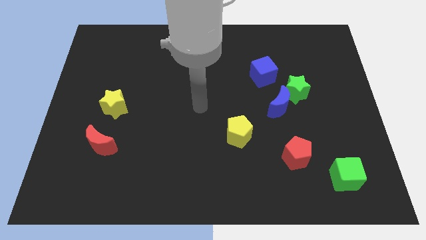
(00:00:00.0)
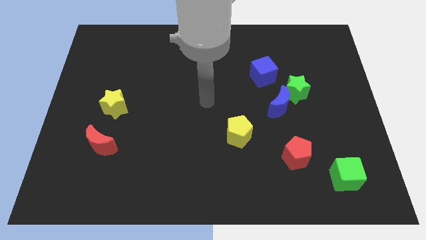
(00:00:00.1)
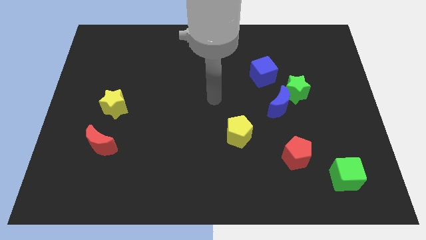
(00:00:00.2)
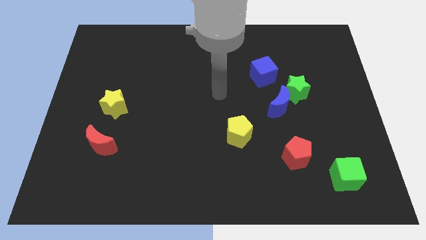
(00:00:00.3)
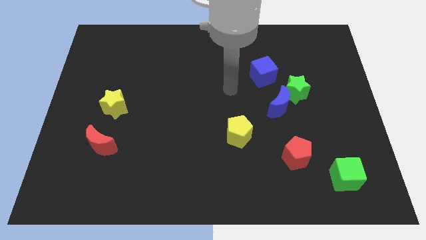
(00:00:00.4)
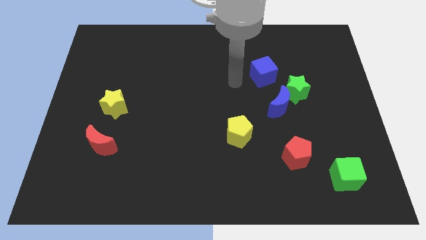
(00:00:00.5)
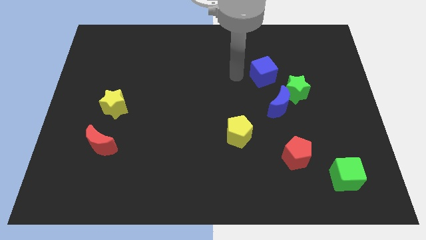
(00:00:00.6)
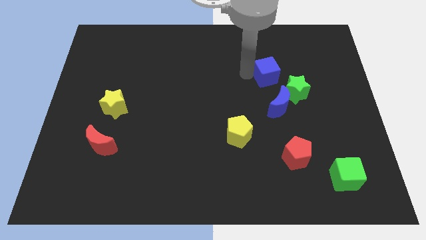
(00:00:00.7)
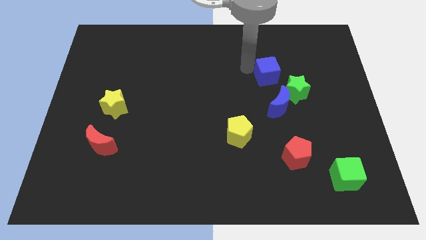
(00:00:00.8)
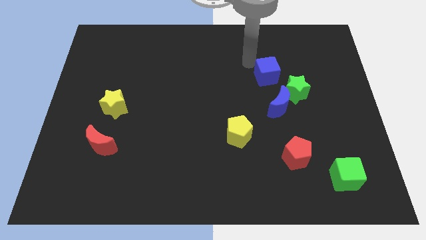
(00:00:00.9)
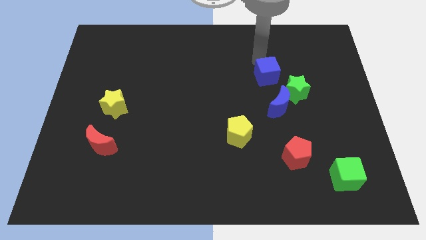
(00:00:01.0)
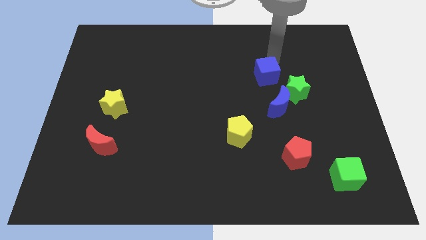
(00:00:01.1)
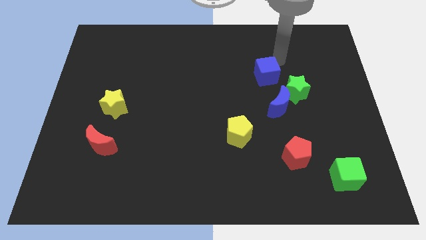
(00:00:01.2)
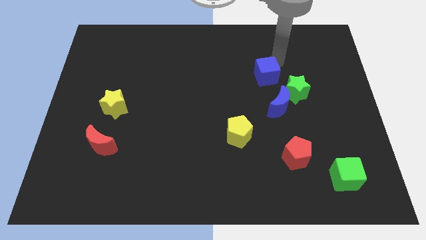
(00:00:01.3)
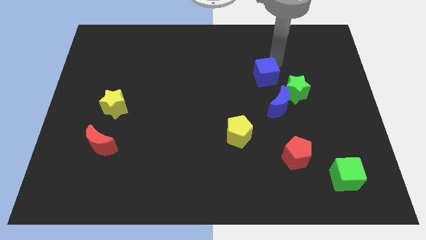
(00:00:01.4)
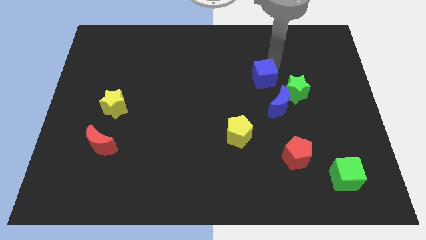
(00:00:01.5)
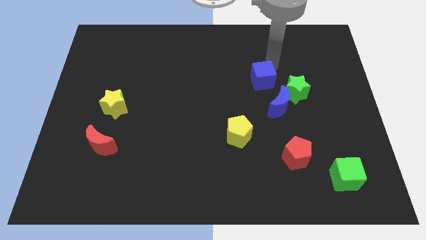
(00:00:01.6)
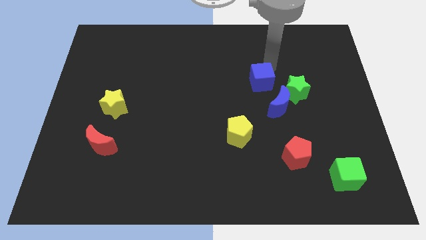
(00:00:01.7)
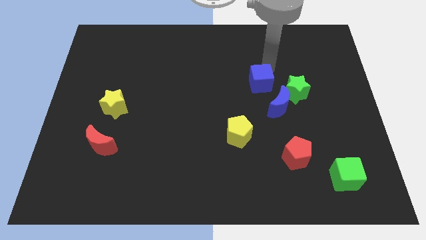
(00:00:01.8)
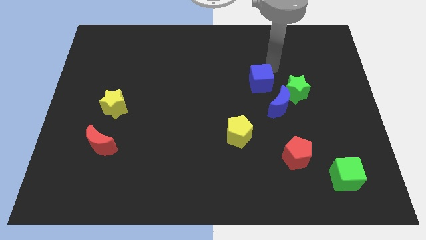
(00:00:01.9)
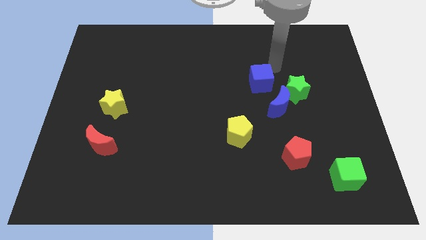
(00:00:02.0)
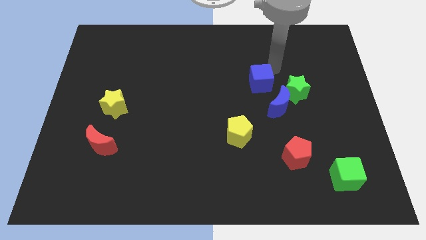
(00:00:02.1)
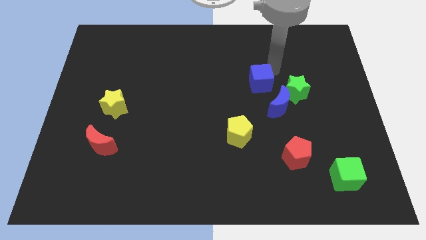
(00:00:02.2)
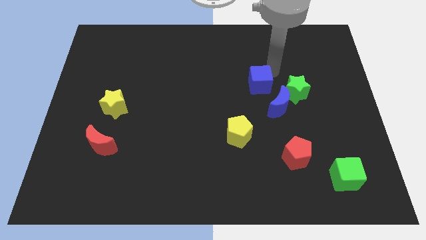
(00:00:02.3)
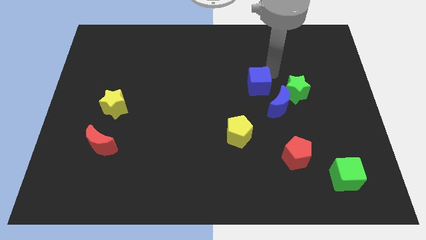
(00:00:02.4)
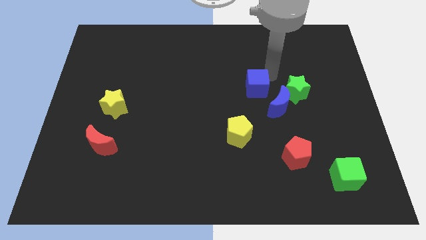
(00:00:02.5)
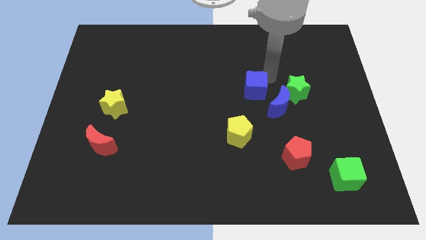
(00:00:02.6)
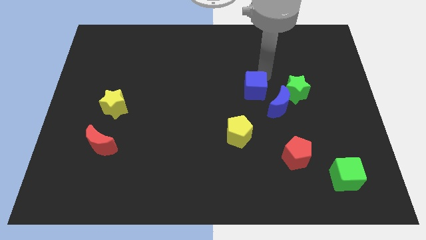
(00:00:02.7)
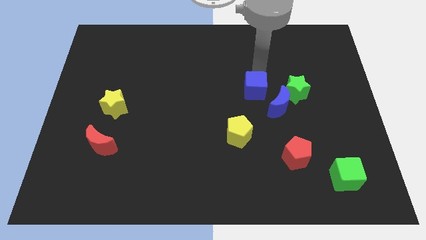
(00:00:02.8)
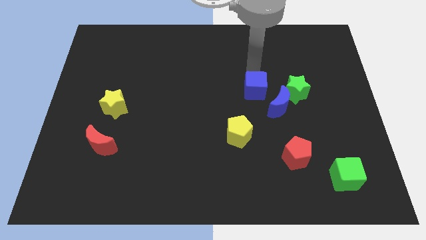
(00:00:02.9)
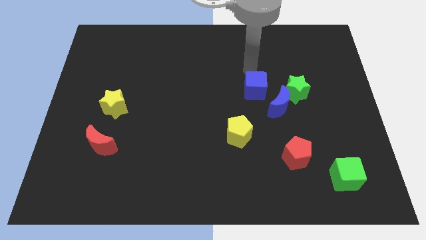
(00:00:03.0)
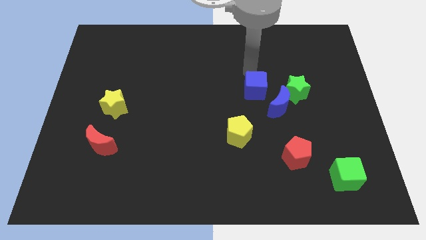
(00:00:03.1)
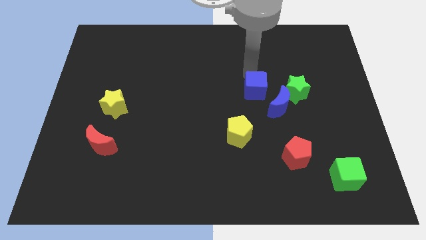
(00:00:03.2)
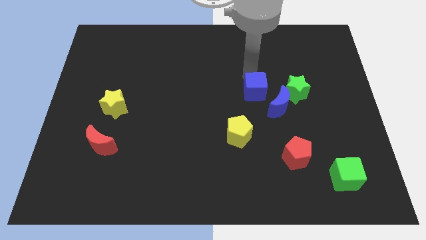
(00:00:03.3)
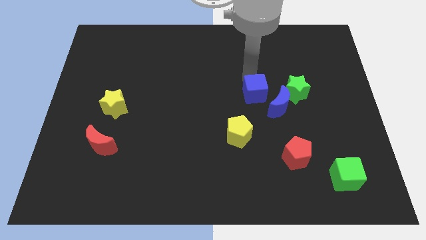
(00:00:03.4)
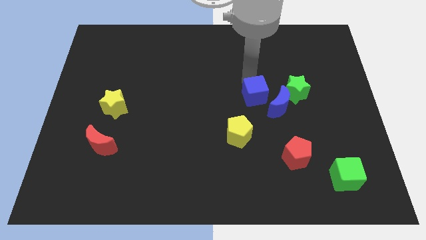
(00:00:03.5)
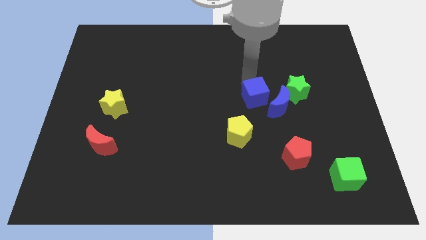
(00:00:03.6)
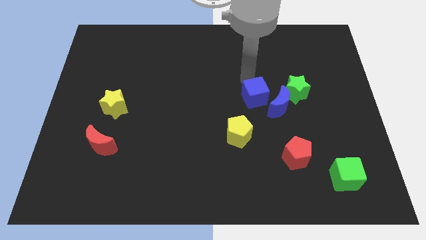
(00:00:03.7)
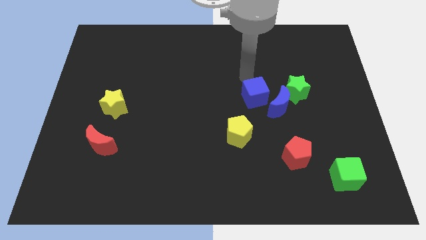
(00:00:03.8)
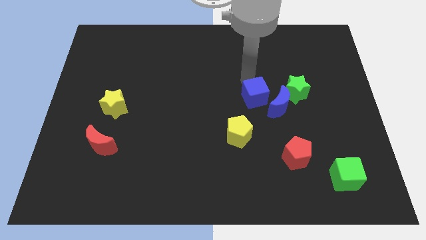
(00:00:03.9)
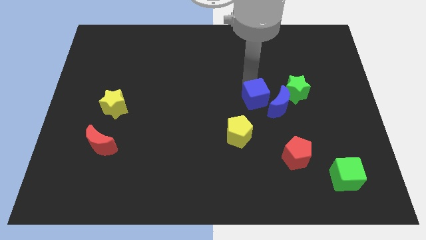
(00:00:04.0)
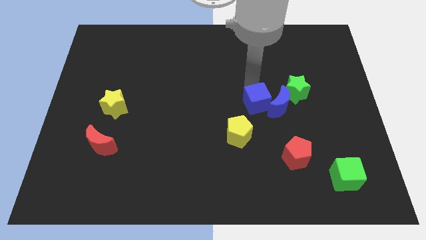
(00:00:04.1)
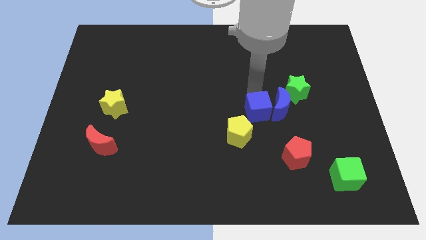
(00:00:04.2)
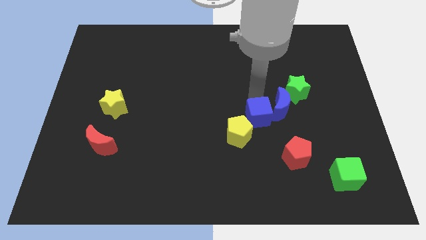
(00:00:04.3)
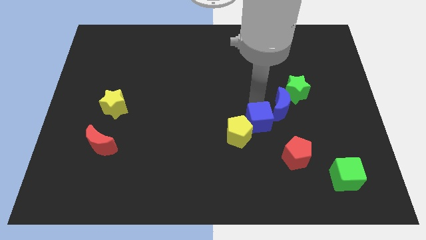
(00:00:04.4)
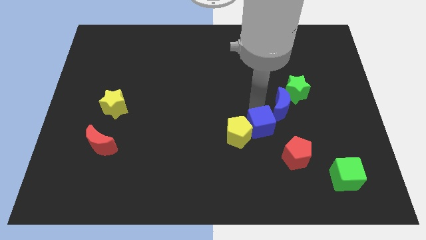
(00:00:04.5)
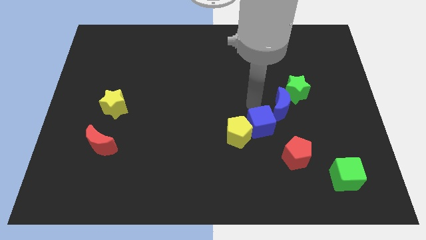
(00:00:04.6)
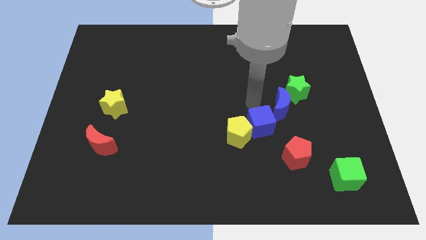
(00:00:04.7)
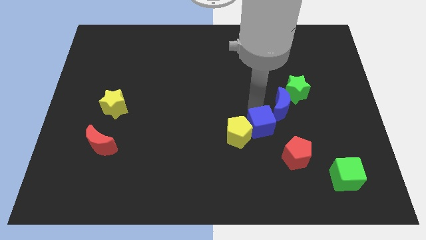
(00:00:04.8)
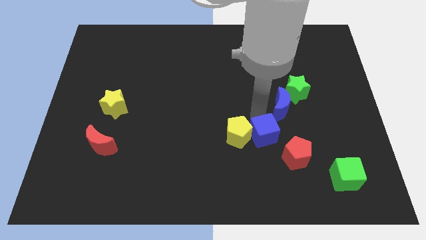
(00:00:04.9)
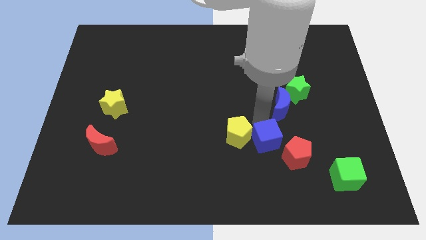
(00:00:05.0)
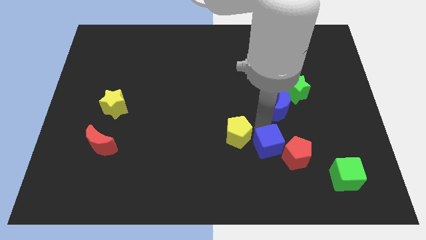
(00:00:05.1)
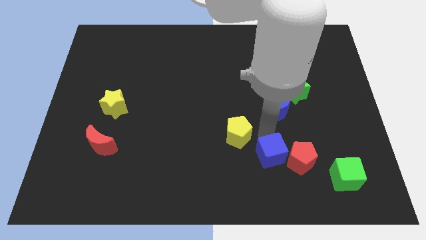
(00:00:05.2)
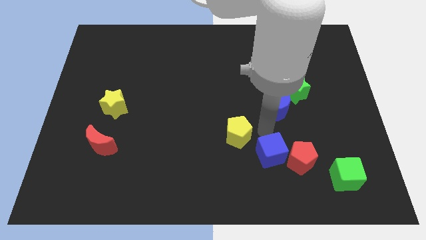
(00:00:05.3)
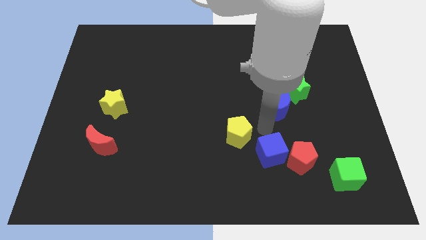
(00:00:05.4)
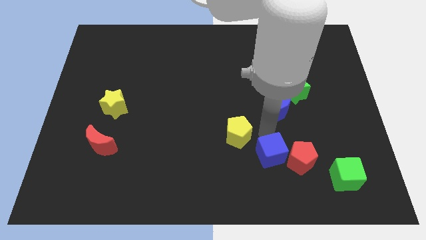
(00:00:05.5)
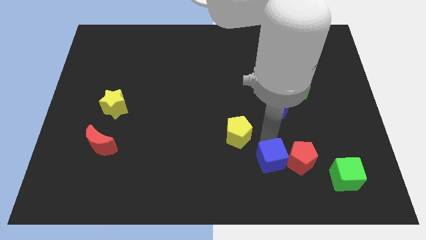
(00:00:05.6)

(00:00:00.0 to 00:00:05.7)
move the blue cube to the bottom left side of the red pentagon
